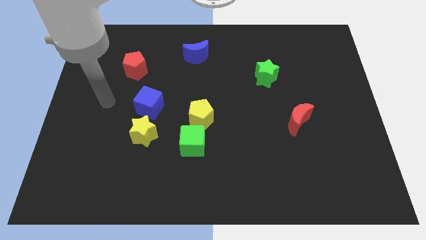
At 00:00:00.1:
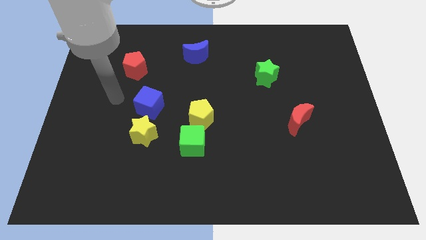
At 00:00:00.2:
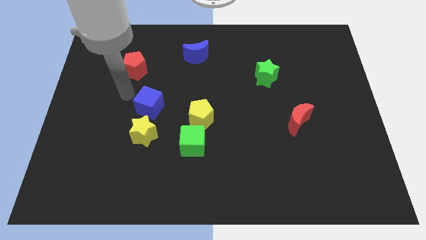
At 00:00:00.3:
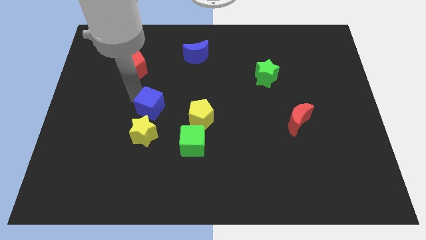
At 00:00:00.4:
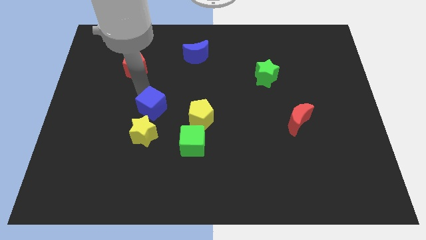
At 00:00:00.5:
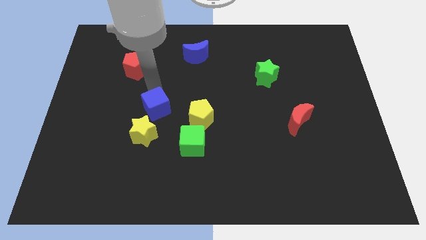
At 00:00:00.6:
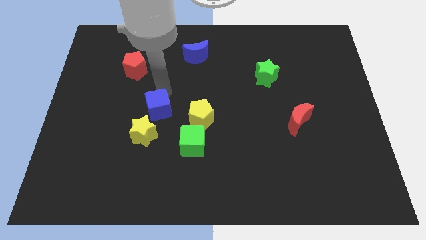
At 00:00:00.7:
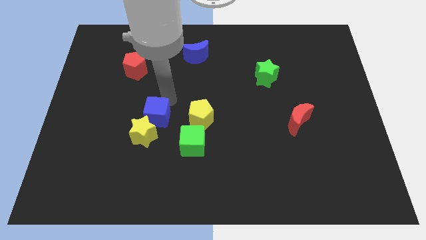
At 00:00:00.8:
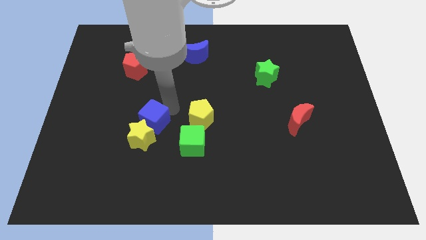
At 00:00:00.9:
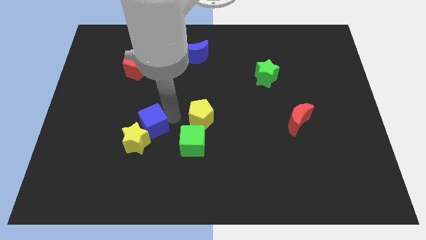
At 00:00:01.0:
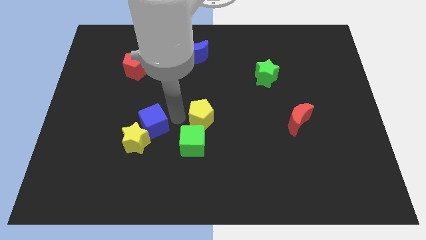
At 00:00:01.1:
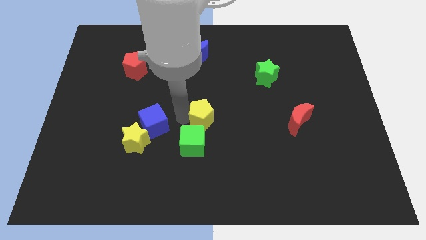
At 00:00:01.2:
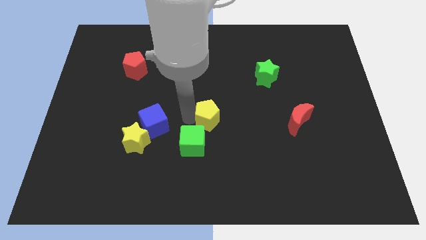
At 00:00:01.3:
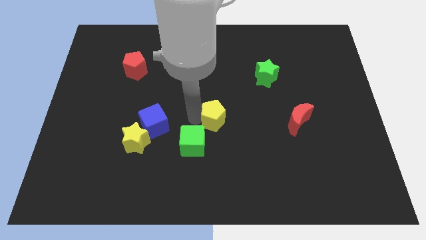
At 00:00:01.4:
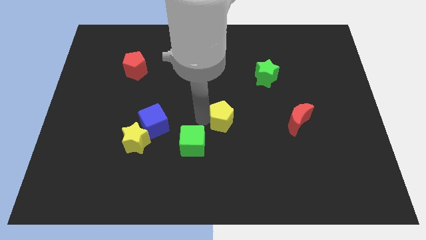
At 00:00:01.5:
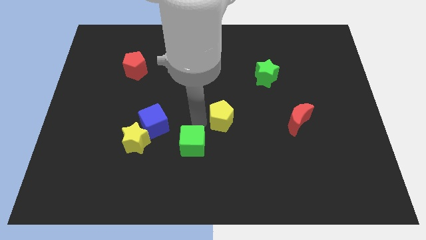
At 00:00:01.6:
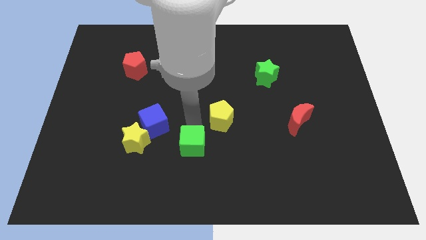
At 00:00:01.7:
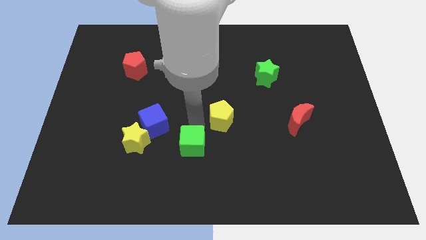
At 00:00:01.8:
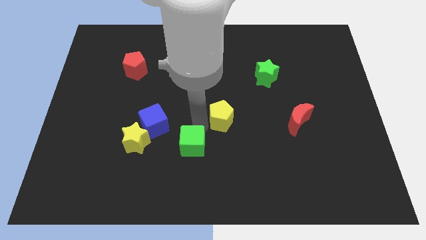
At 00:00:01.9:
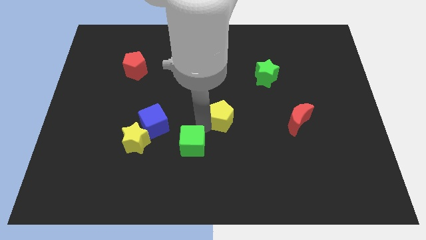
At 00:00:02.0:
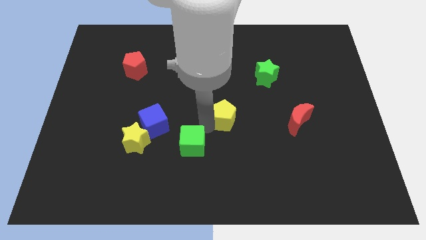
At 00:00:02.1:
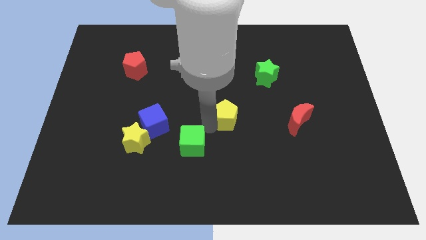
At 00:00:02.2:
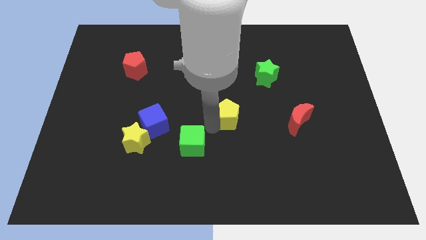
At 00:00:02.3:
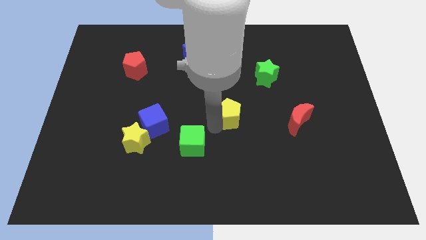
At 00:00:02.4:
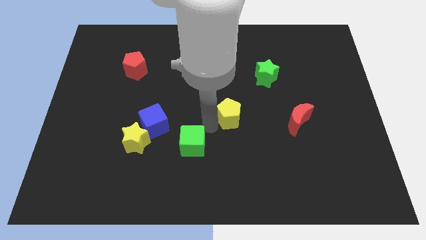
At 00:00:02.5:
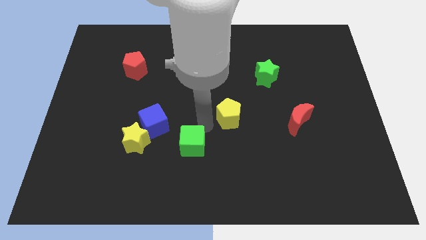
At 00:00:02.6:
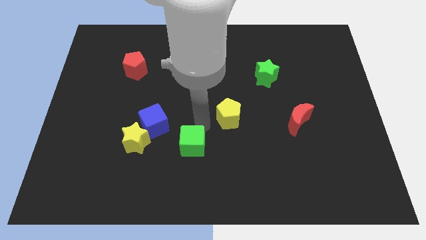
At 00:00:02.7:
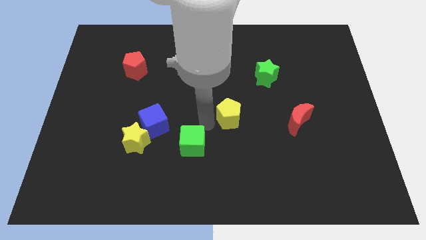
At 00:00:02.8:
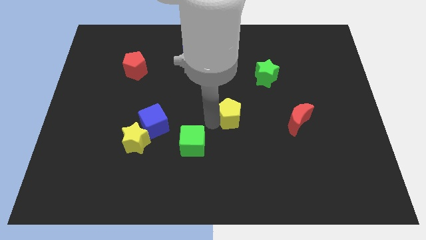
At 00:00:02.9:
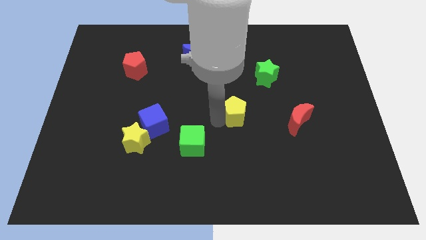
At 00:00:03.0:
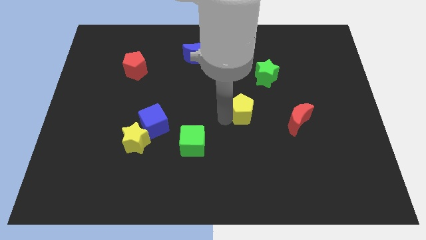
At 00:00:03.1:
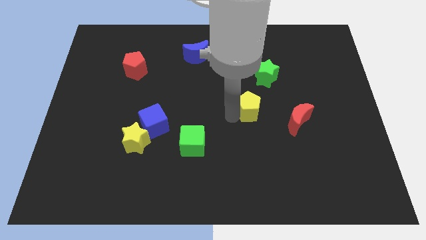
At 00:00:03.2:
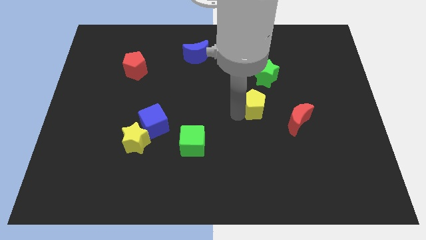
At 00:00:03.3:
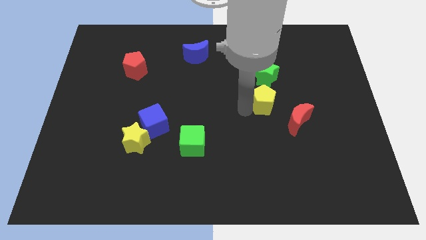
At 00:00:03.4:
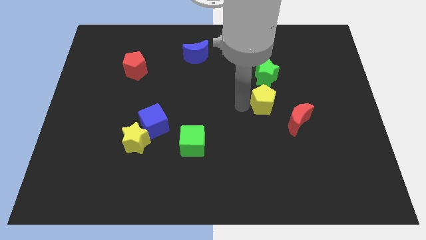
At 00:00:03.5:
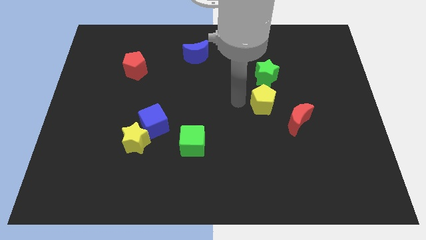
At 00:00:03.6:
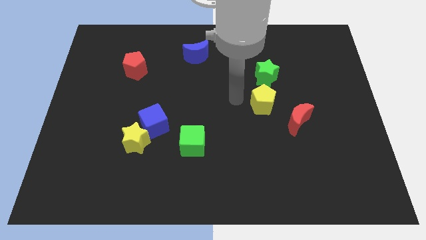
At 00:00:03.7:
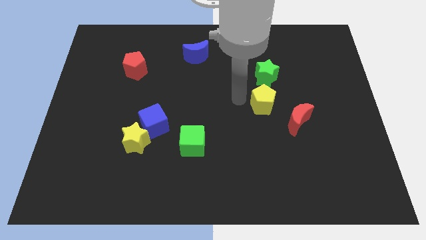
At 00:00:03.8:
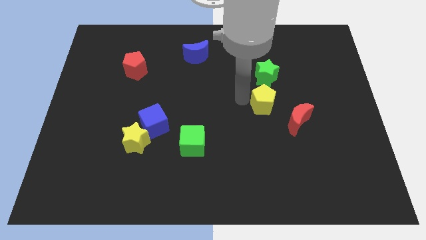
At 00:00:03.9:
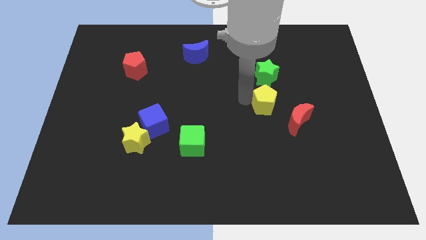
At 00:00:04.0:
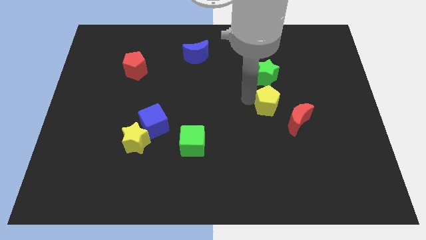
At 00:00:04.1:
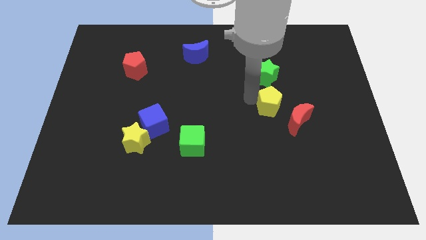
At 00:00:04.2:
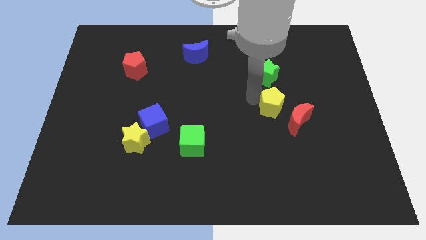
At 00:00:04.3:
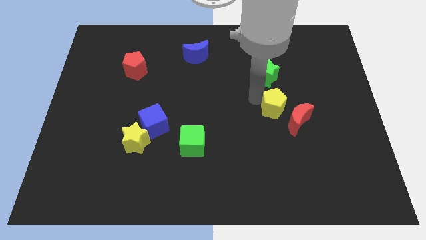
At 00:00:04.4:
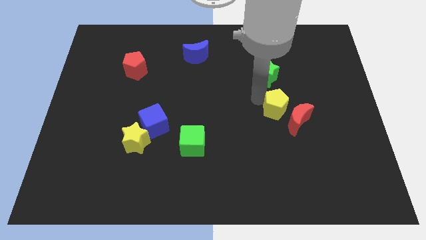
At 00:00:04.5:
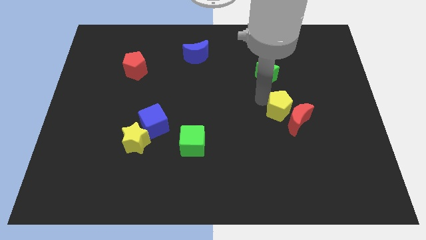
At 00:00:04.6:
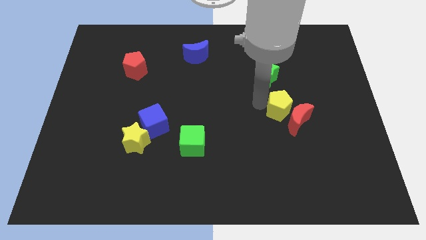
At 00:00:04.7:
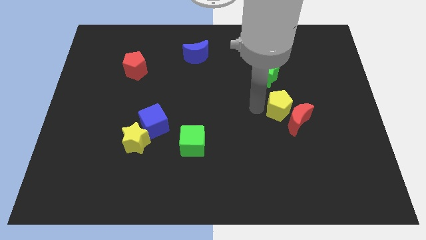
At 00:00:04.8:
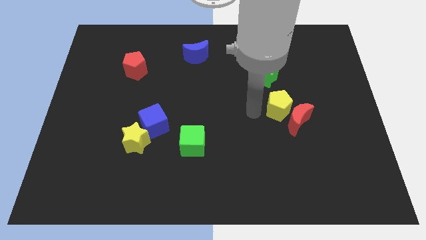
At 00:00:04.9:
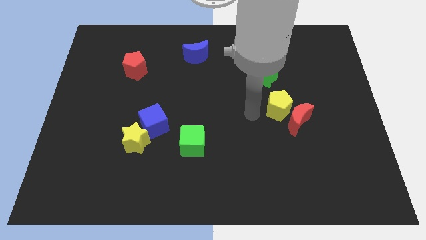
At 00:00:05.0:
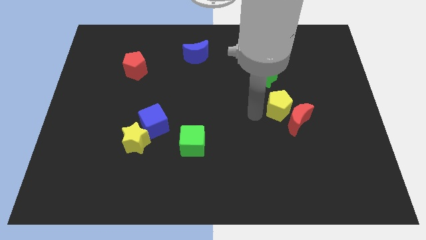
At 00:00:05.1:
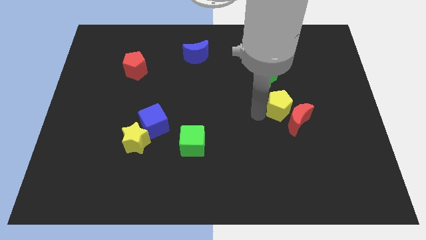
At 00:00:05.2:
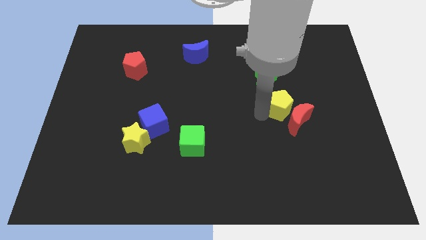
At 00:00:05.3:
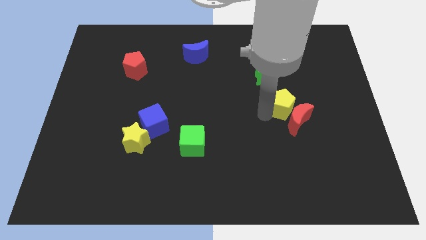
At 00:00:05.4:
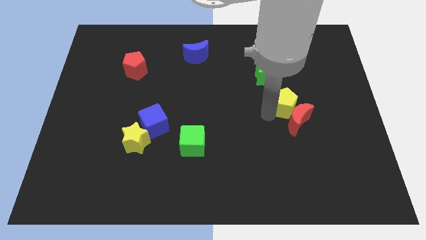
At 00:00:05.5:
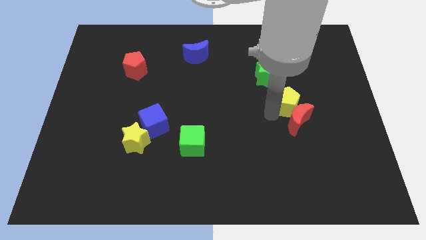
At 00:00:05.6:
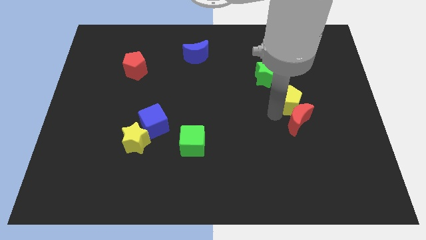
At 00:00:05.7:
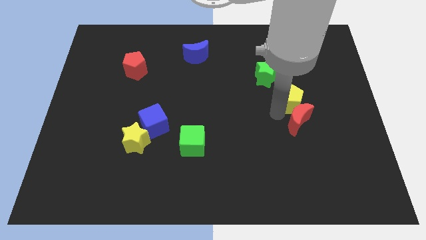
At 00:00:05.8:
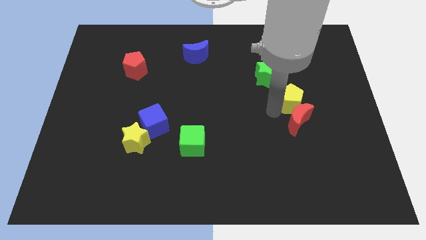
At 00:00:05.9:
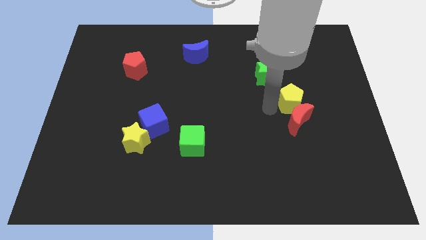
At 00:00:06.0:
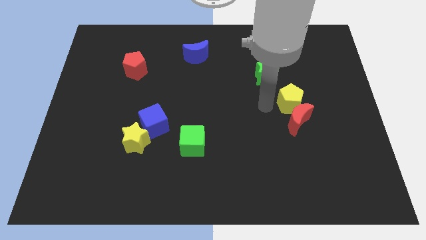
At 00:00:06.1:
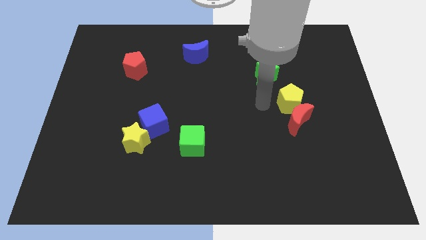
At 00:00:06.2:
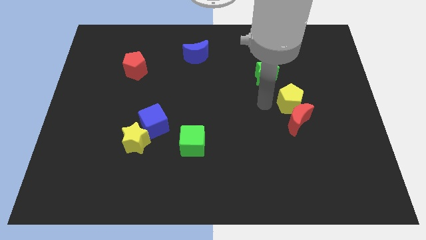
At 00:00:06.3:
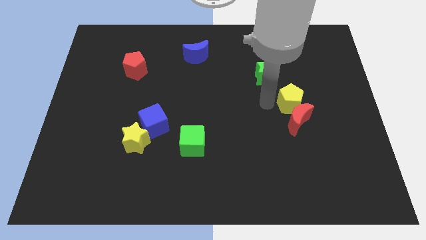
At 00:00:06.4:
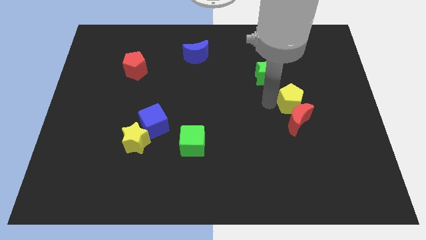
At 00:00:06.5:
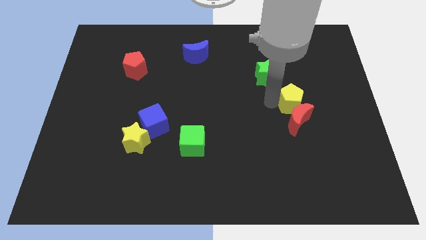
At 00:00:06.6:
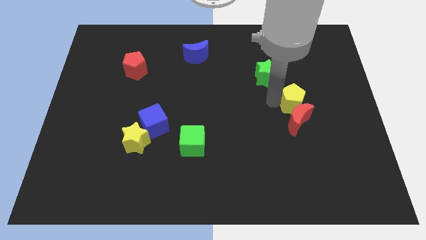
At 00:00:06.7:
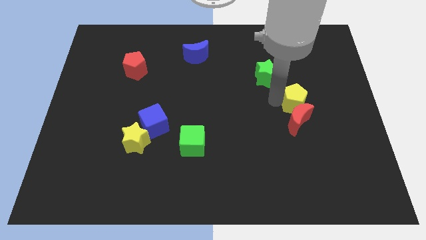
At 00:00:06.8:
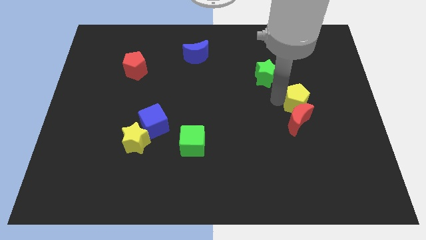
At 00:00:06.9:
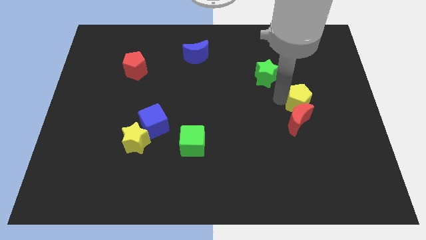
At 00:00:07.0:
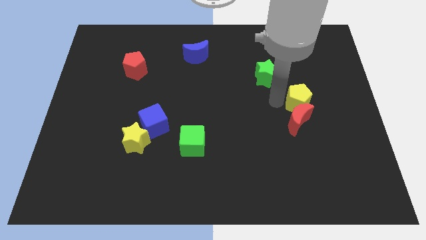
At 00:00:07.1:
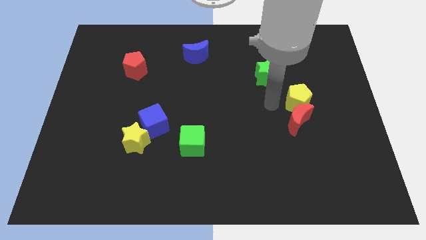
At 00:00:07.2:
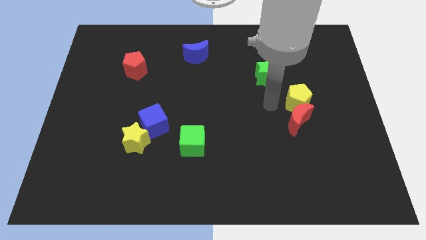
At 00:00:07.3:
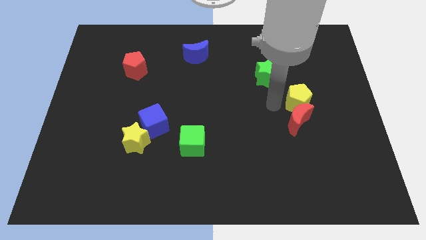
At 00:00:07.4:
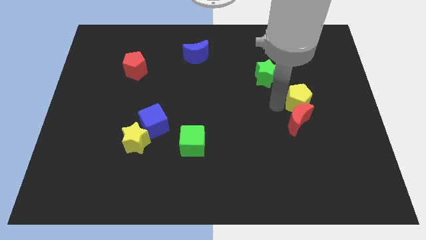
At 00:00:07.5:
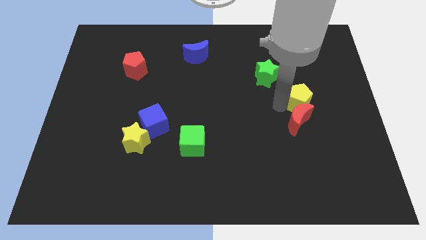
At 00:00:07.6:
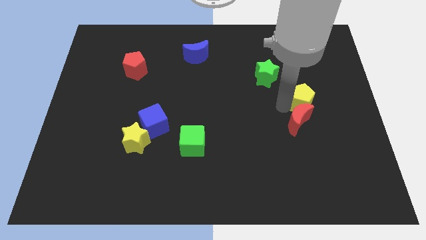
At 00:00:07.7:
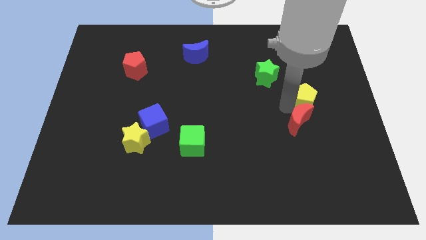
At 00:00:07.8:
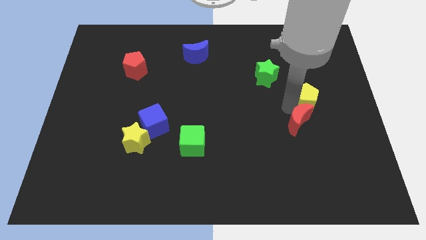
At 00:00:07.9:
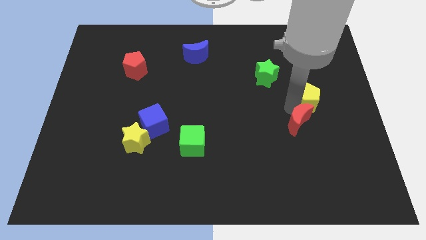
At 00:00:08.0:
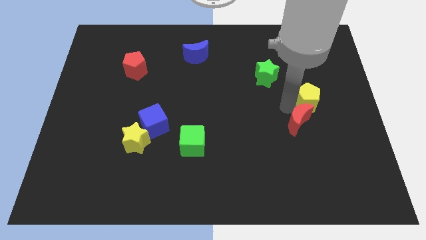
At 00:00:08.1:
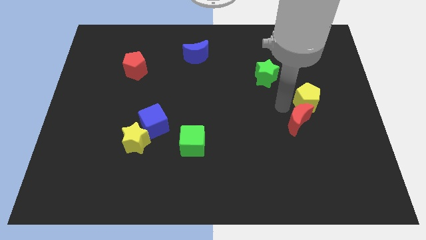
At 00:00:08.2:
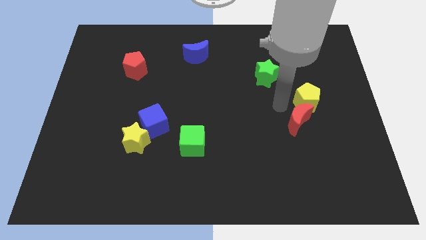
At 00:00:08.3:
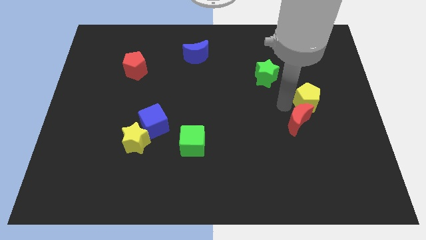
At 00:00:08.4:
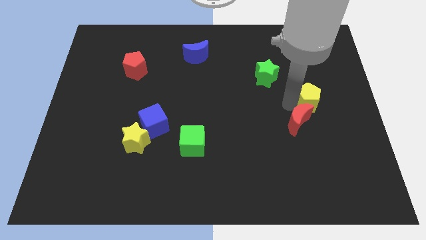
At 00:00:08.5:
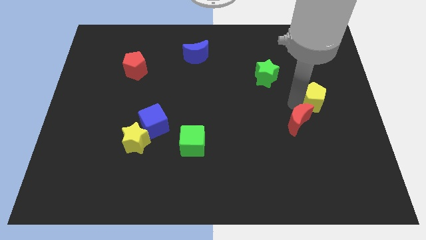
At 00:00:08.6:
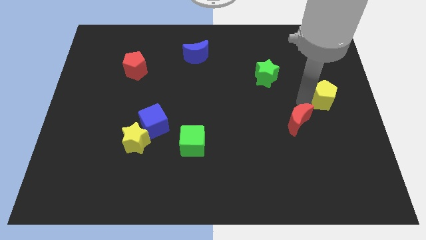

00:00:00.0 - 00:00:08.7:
push the yellow pentagon to the right side
